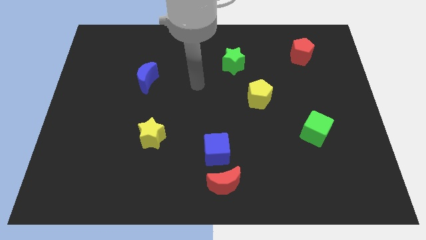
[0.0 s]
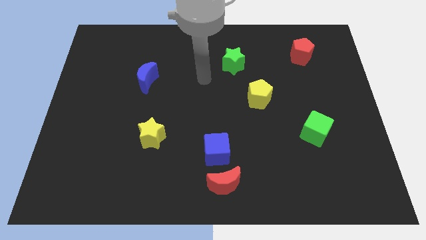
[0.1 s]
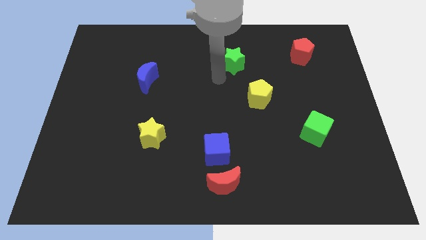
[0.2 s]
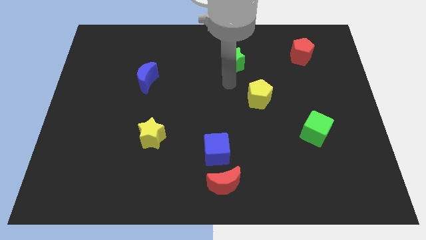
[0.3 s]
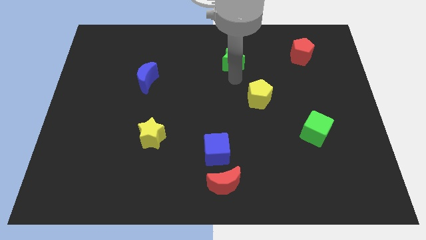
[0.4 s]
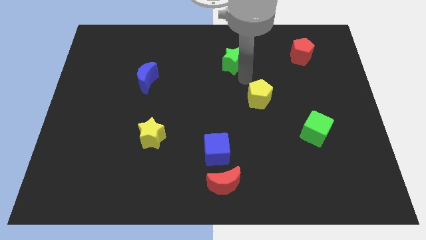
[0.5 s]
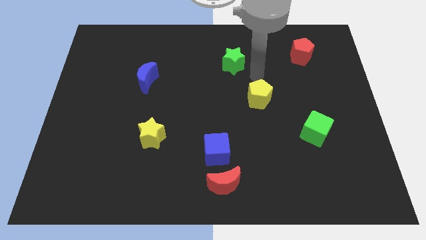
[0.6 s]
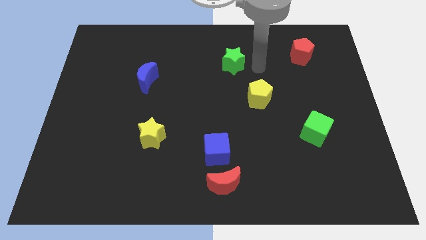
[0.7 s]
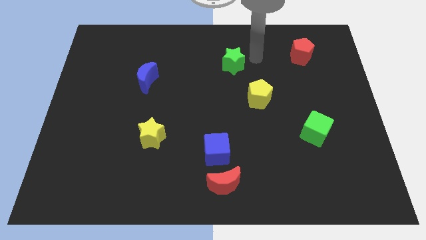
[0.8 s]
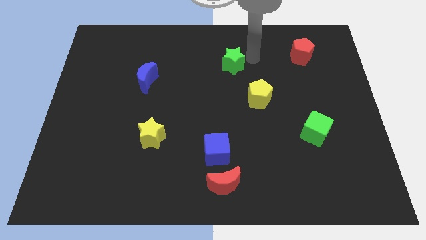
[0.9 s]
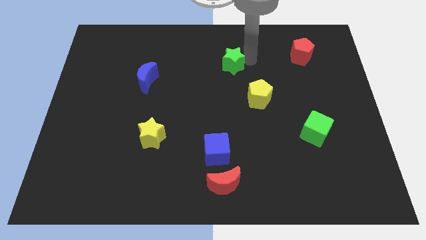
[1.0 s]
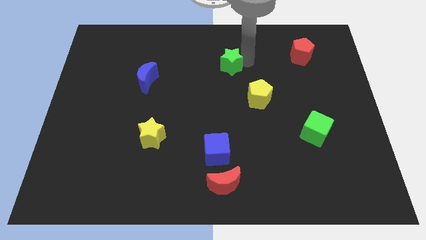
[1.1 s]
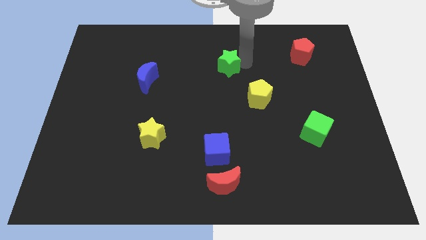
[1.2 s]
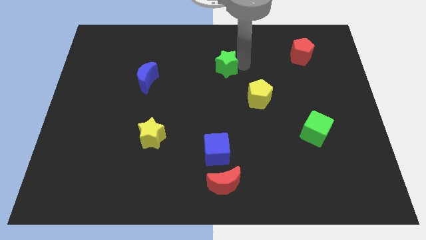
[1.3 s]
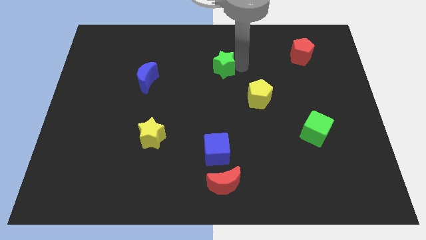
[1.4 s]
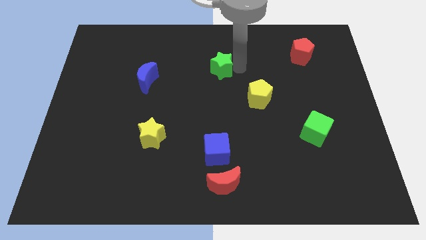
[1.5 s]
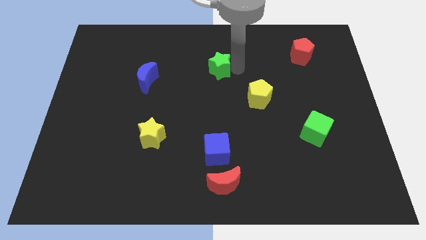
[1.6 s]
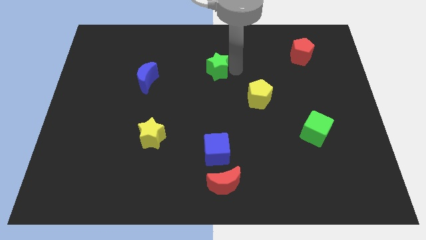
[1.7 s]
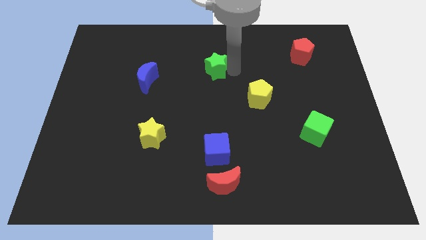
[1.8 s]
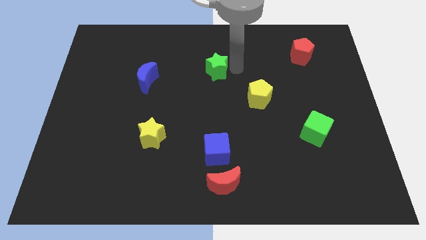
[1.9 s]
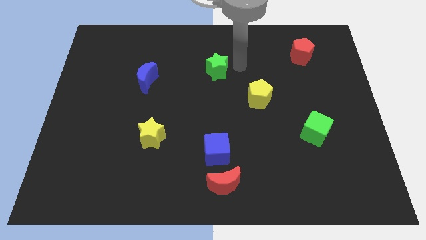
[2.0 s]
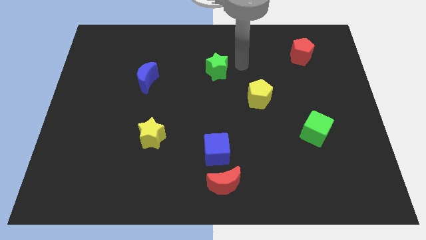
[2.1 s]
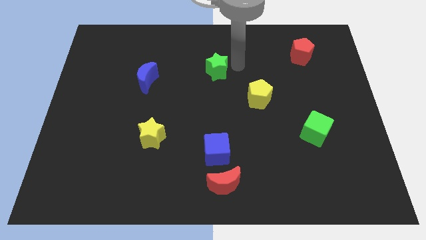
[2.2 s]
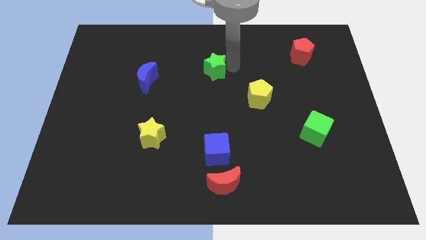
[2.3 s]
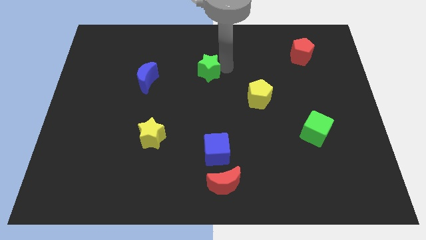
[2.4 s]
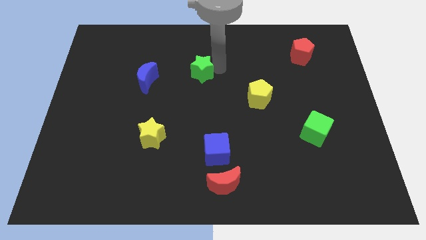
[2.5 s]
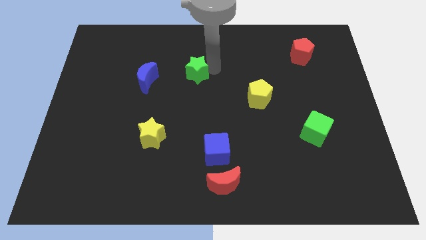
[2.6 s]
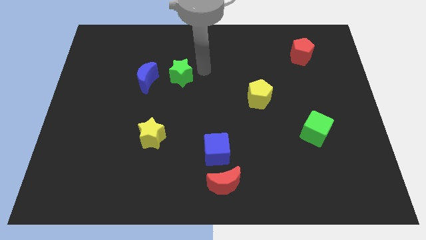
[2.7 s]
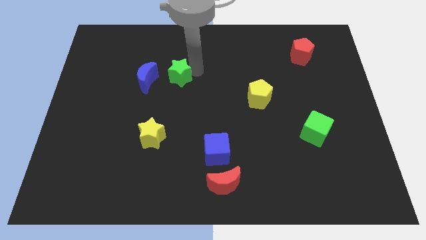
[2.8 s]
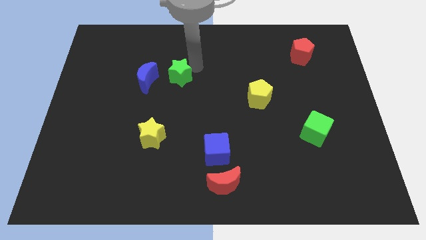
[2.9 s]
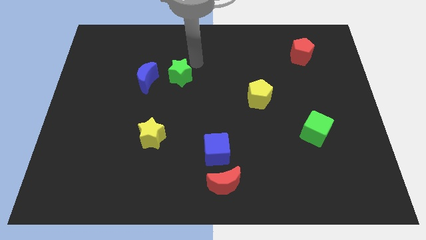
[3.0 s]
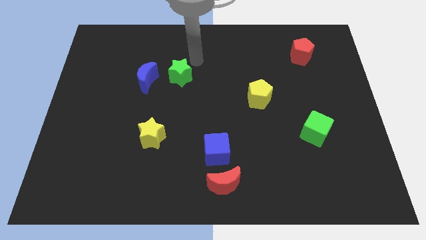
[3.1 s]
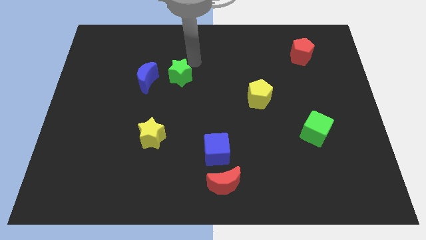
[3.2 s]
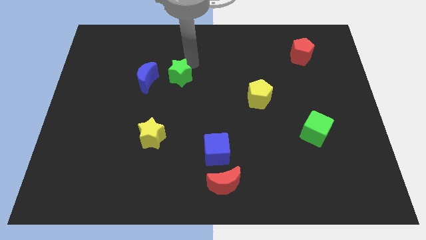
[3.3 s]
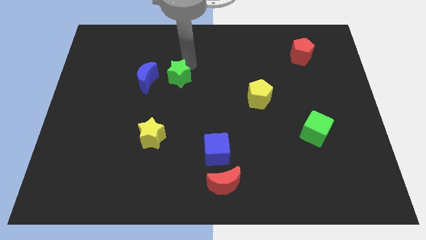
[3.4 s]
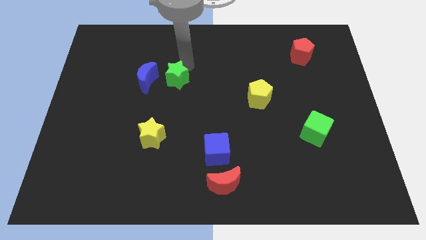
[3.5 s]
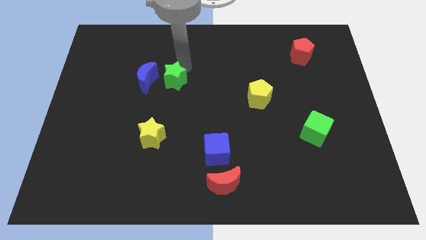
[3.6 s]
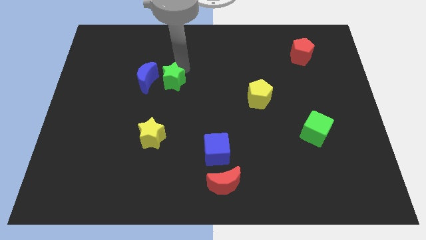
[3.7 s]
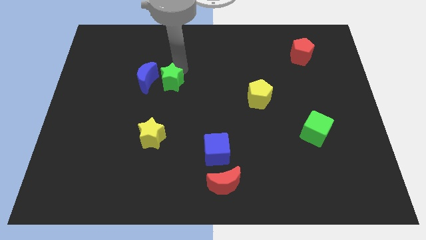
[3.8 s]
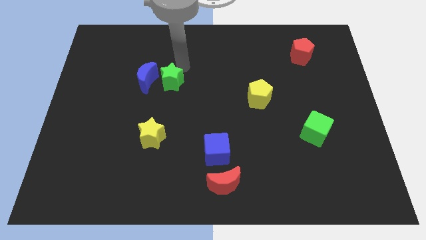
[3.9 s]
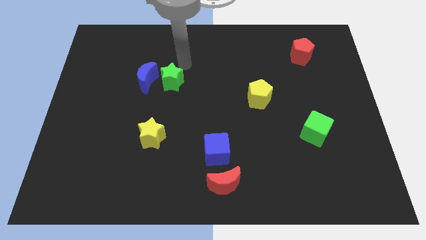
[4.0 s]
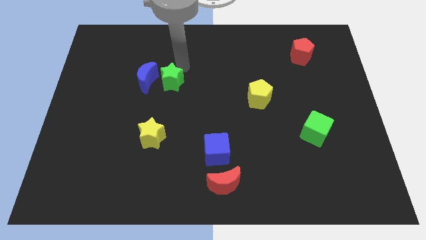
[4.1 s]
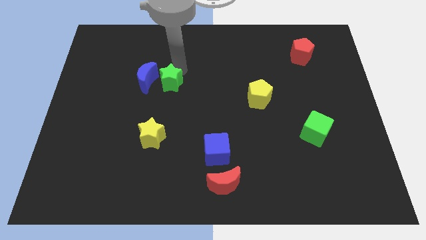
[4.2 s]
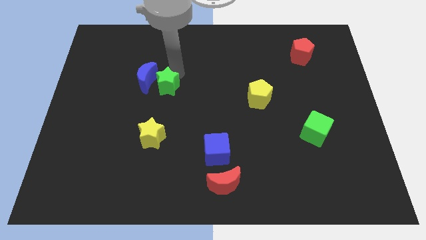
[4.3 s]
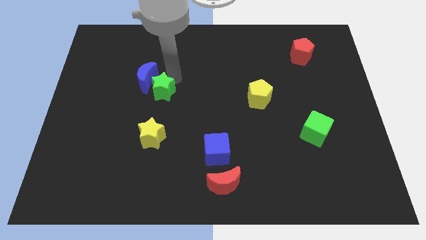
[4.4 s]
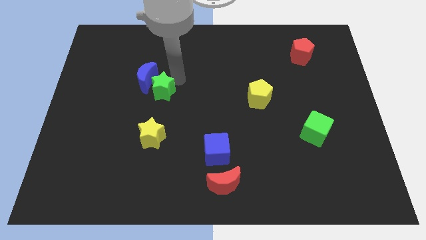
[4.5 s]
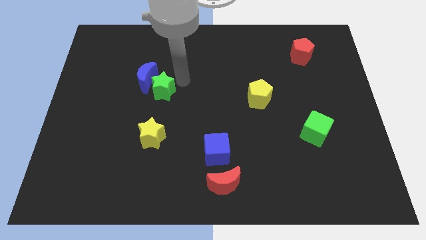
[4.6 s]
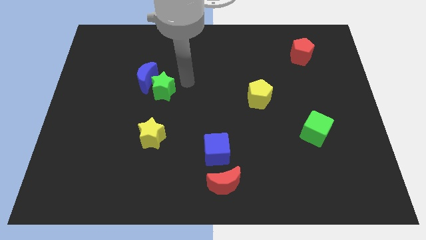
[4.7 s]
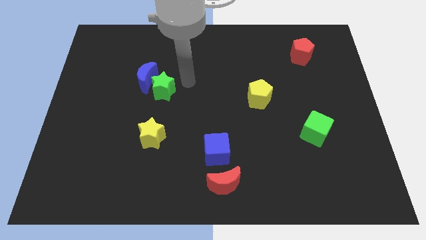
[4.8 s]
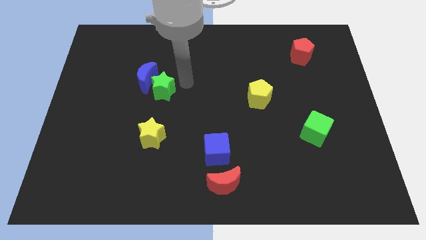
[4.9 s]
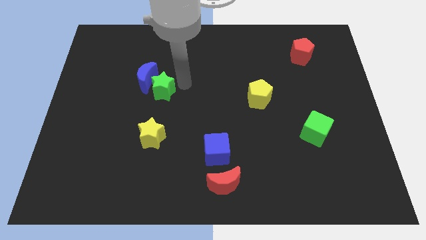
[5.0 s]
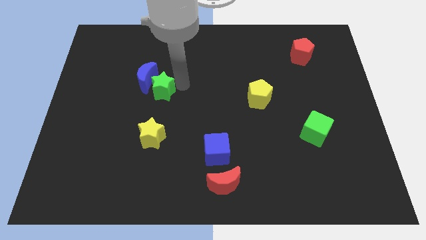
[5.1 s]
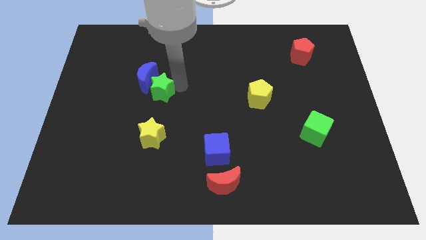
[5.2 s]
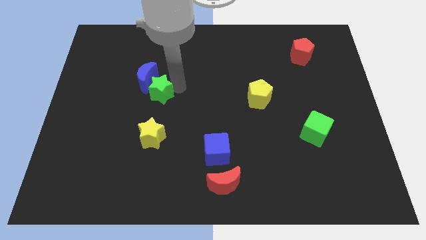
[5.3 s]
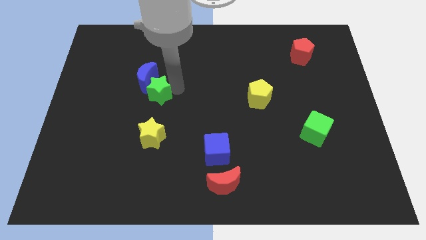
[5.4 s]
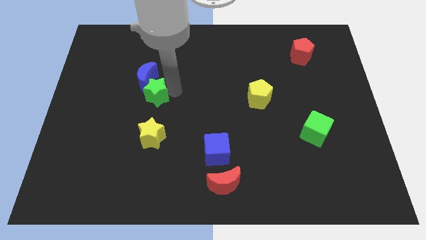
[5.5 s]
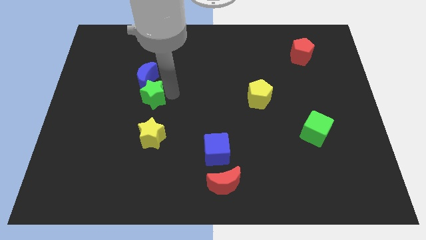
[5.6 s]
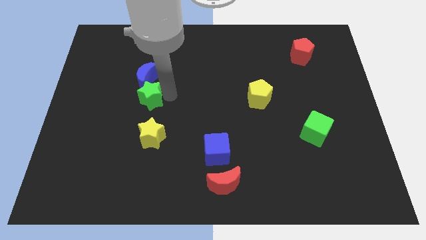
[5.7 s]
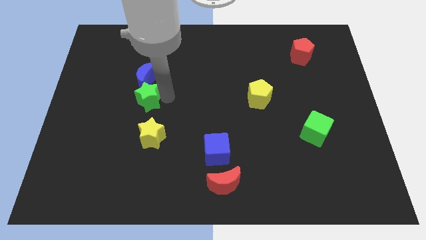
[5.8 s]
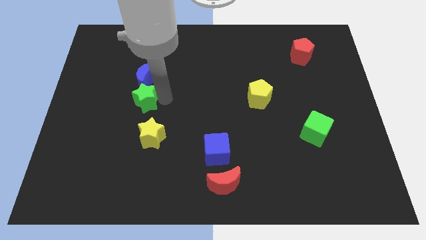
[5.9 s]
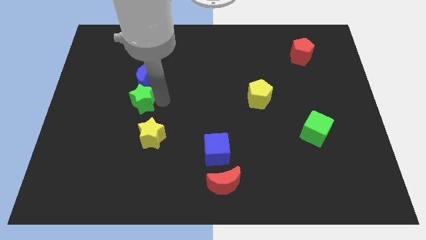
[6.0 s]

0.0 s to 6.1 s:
push the green star to the bottom left side of the blue moon

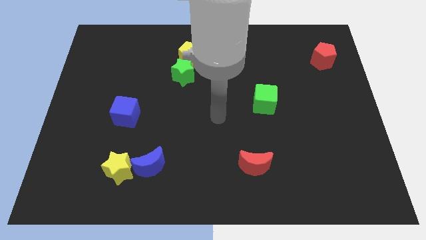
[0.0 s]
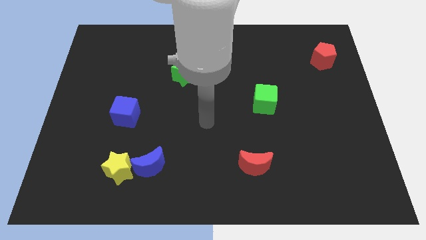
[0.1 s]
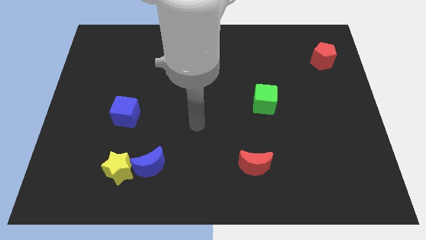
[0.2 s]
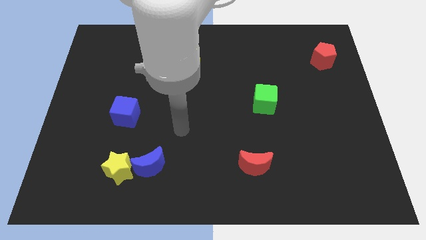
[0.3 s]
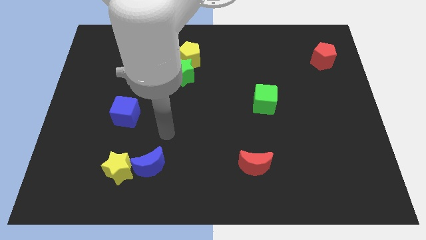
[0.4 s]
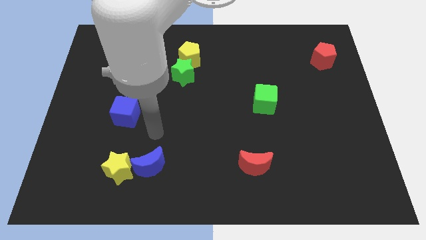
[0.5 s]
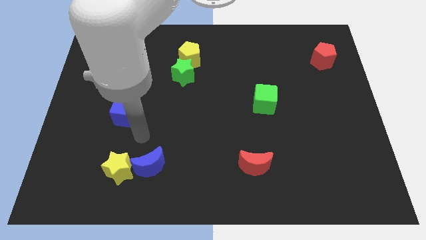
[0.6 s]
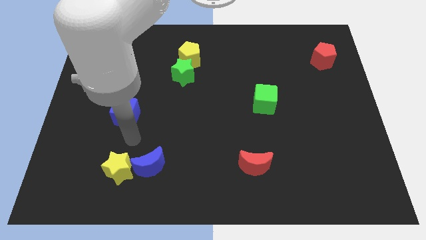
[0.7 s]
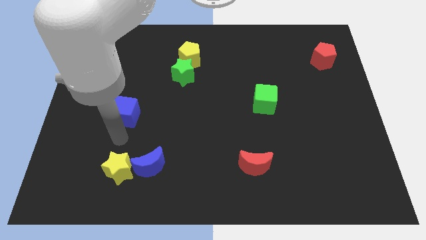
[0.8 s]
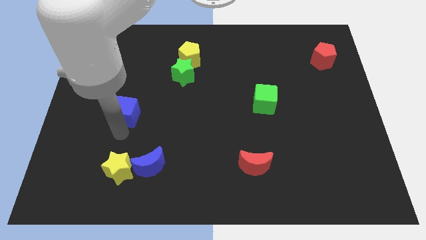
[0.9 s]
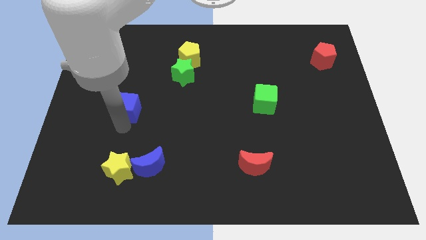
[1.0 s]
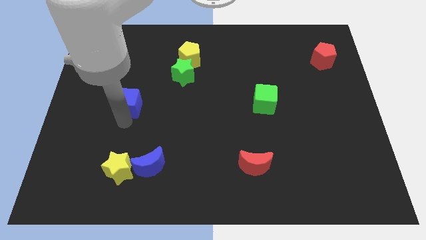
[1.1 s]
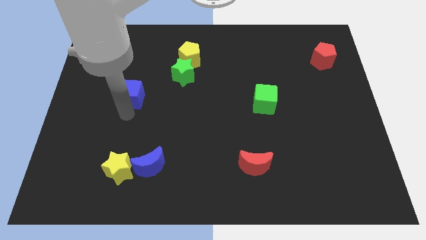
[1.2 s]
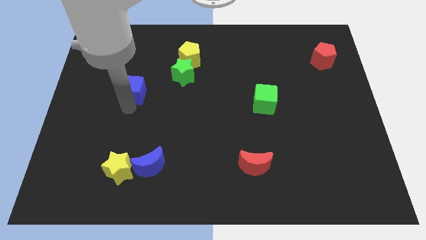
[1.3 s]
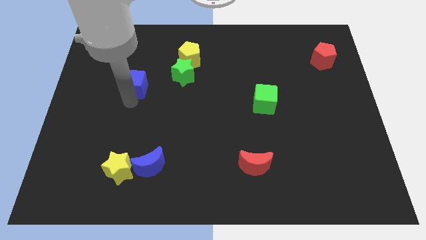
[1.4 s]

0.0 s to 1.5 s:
move the blue cube to the left side of the green star

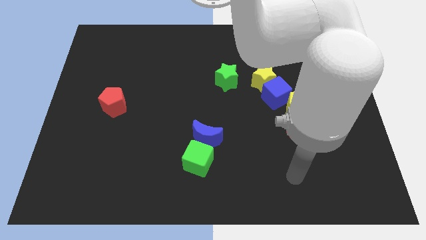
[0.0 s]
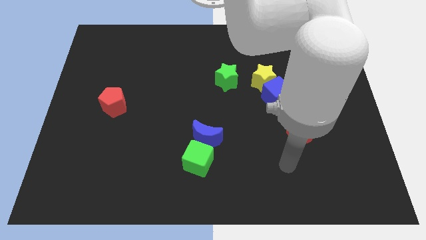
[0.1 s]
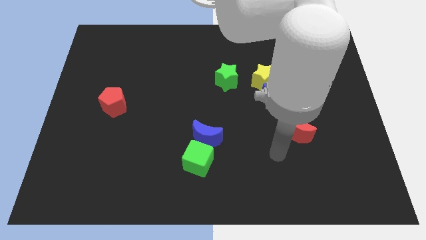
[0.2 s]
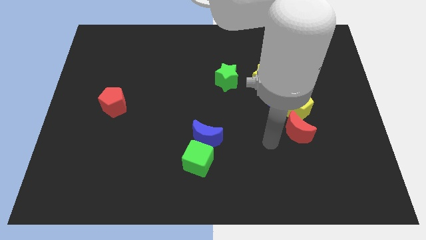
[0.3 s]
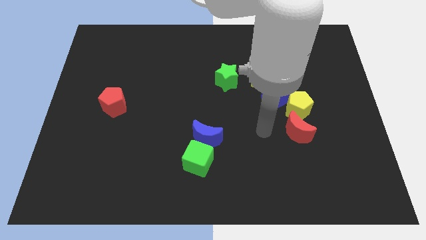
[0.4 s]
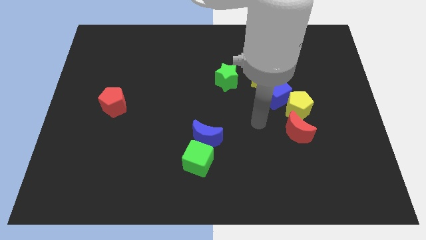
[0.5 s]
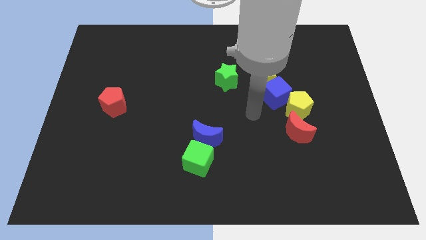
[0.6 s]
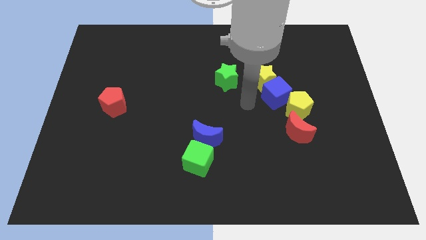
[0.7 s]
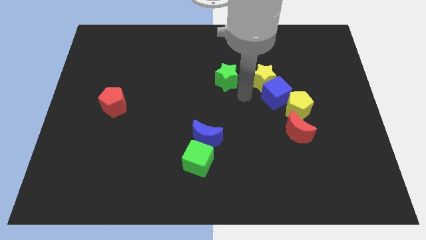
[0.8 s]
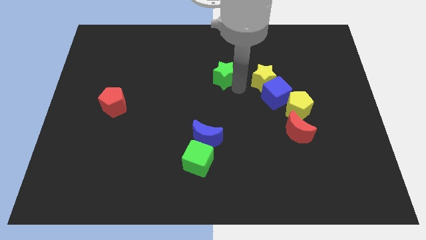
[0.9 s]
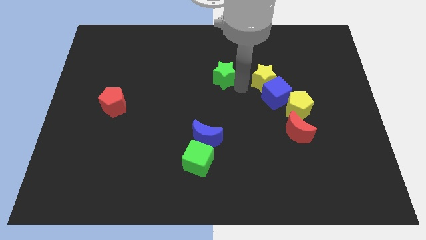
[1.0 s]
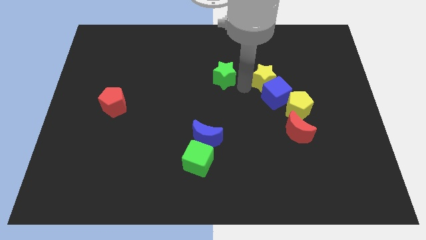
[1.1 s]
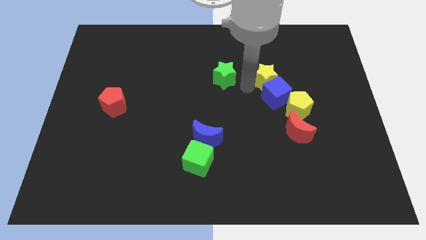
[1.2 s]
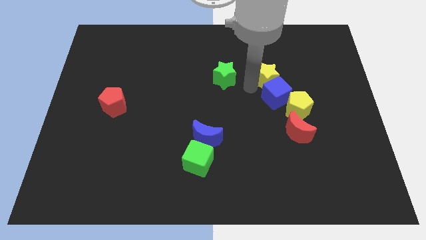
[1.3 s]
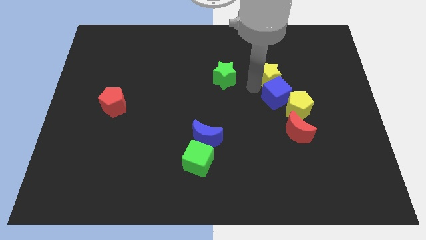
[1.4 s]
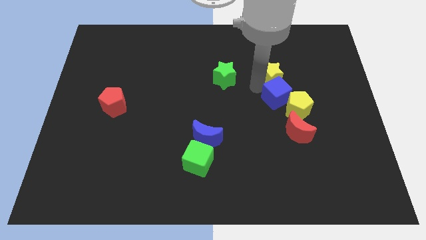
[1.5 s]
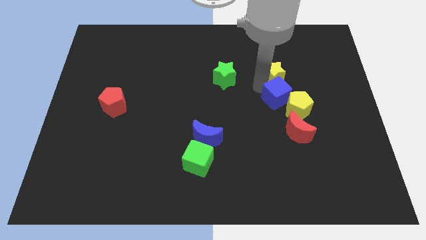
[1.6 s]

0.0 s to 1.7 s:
move the yellow star to the top side of the yellow pentagon
